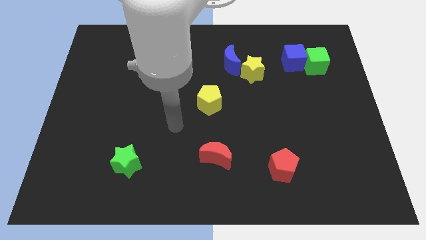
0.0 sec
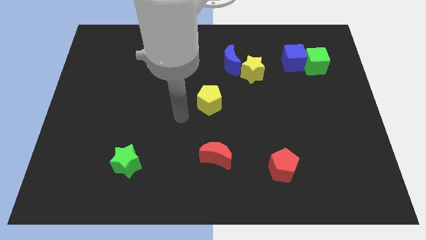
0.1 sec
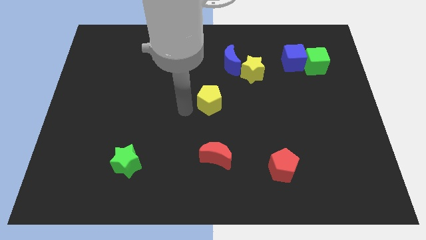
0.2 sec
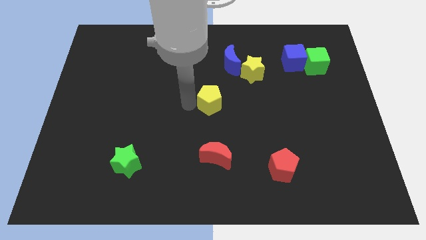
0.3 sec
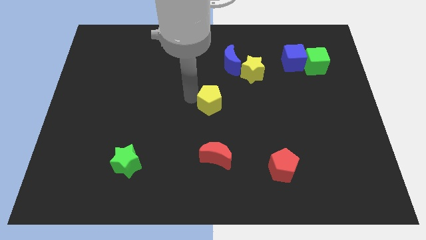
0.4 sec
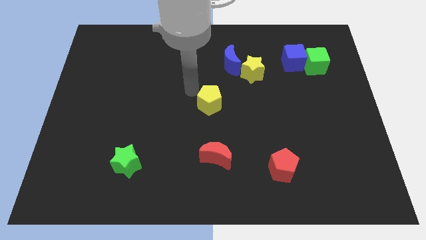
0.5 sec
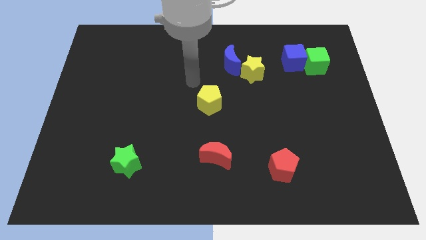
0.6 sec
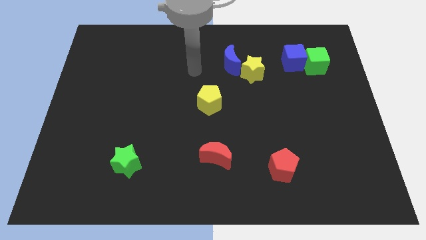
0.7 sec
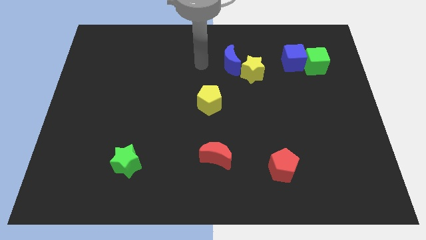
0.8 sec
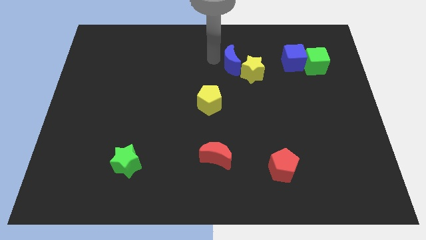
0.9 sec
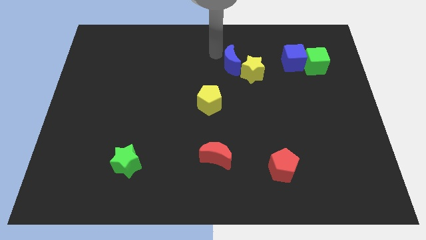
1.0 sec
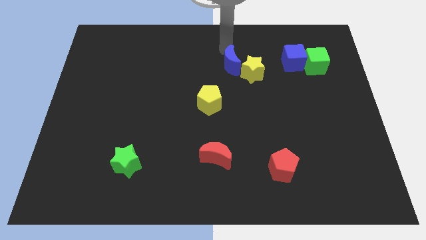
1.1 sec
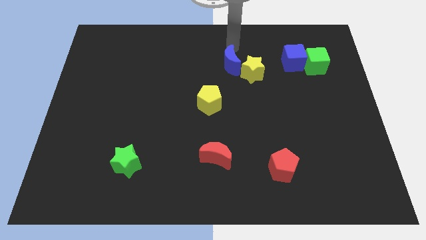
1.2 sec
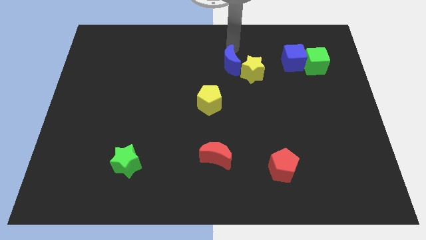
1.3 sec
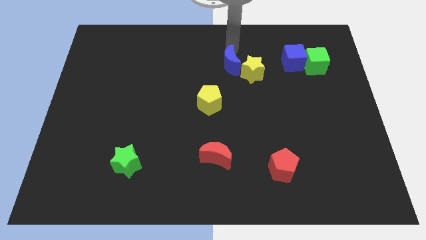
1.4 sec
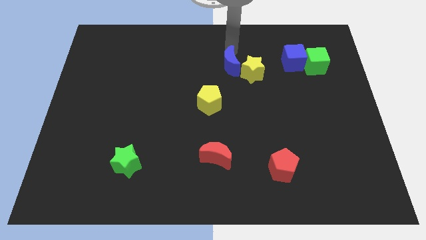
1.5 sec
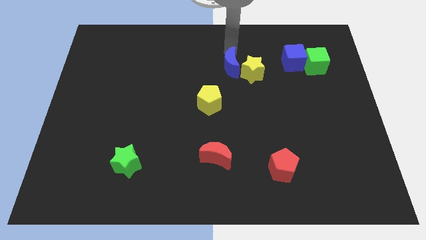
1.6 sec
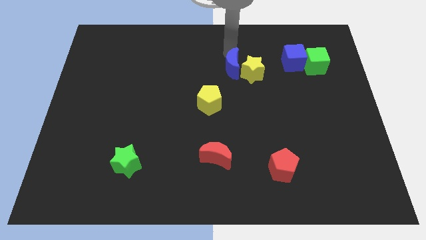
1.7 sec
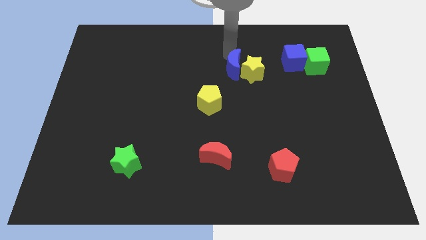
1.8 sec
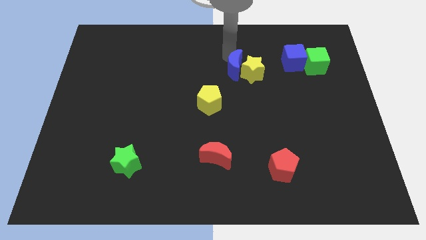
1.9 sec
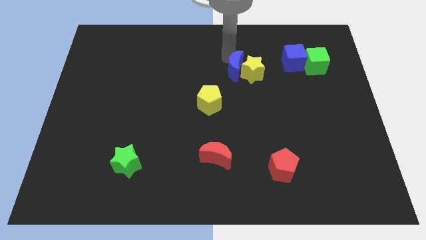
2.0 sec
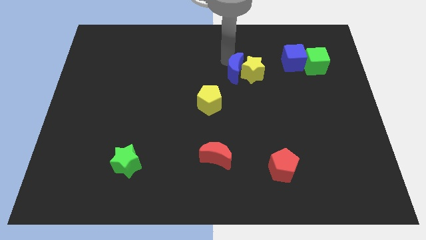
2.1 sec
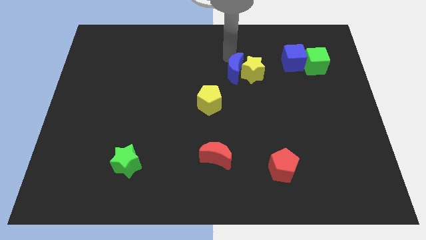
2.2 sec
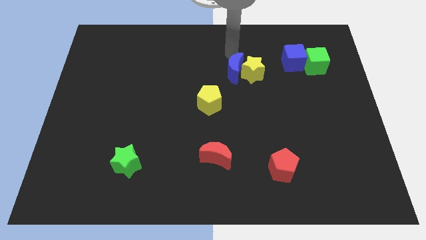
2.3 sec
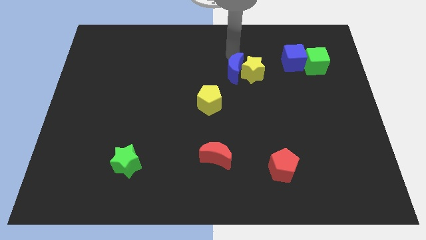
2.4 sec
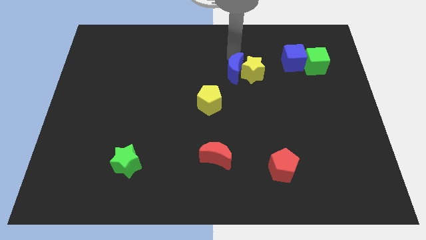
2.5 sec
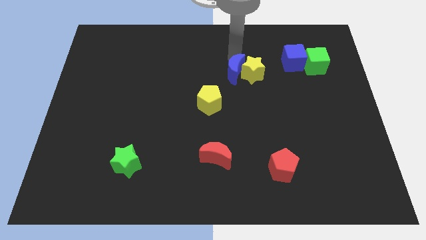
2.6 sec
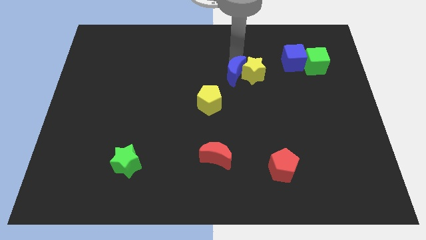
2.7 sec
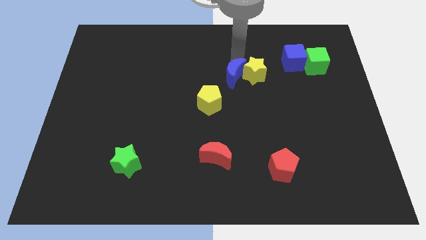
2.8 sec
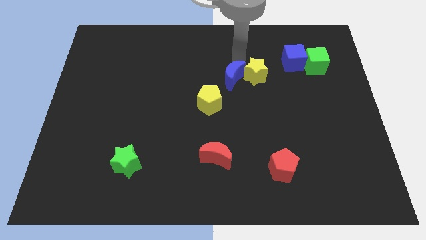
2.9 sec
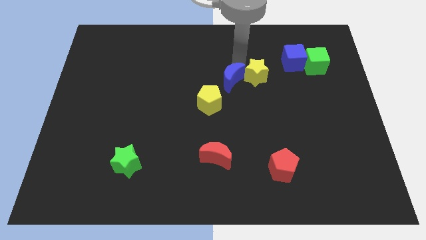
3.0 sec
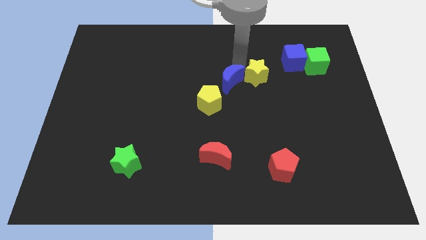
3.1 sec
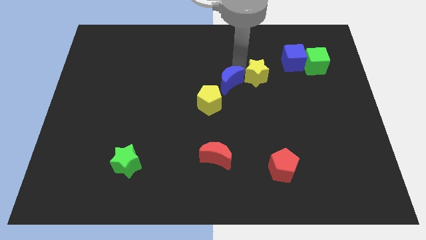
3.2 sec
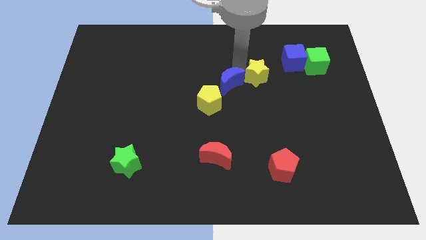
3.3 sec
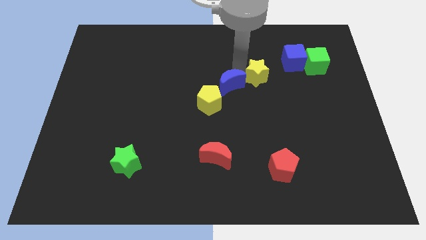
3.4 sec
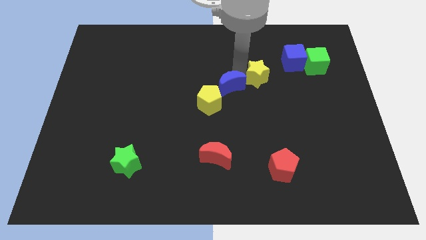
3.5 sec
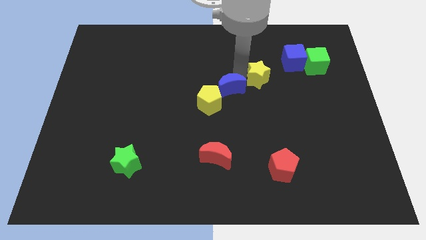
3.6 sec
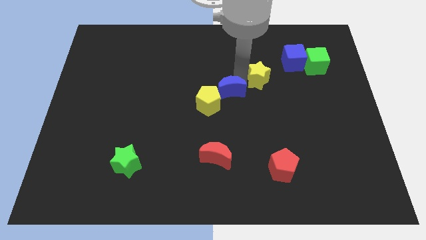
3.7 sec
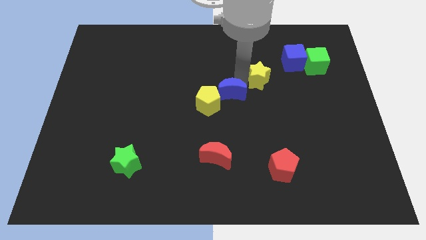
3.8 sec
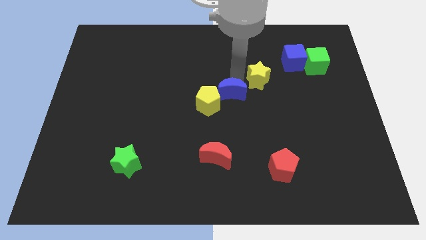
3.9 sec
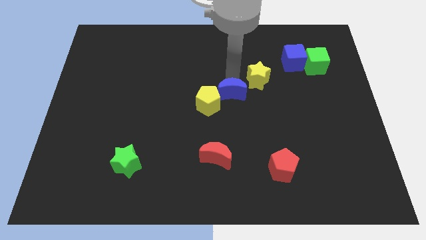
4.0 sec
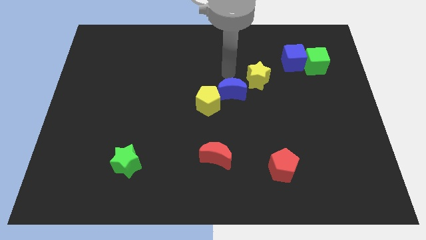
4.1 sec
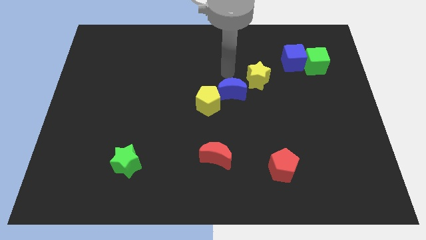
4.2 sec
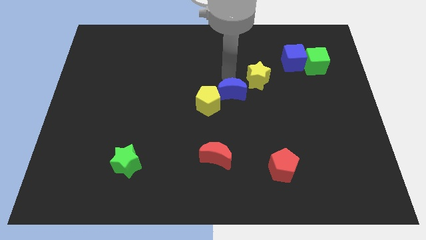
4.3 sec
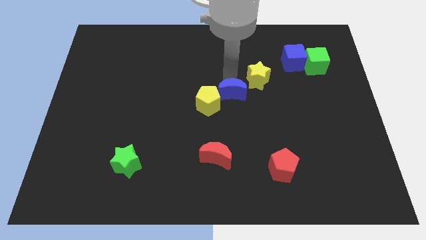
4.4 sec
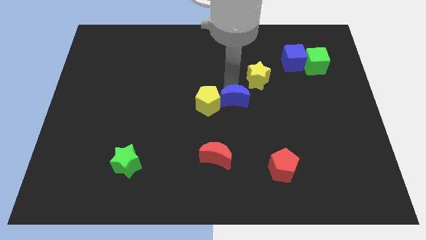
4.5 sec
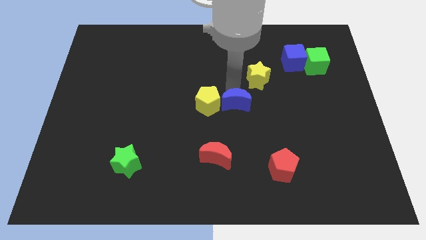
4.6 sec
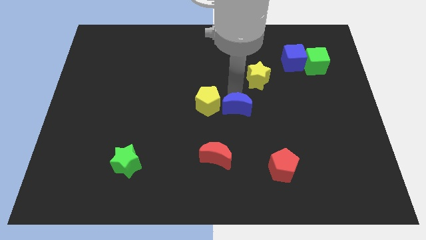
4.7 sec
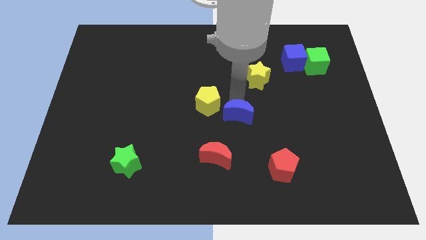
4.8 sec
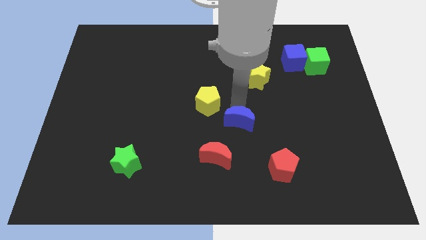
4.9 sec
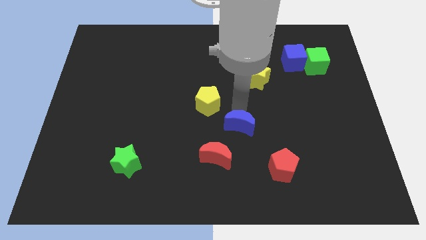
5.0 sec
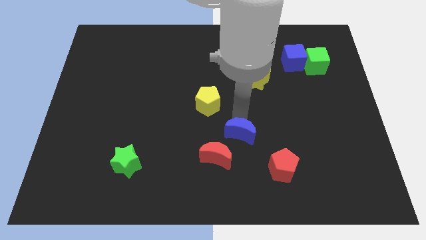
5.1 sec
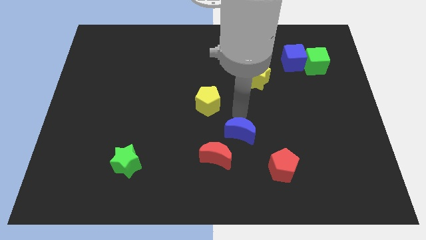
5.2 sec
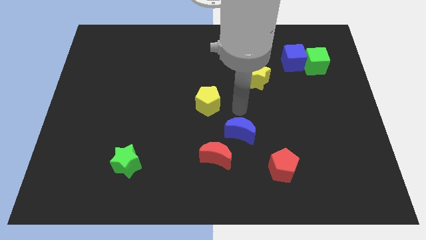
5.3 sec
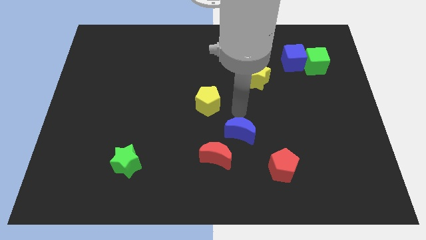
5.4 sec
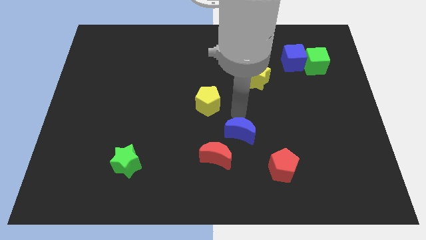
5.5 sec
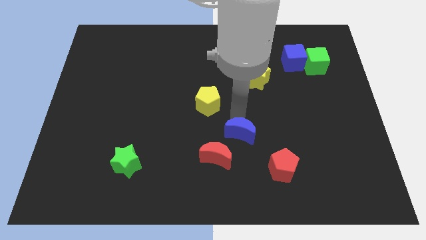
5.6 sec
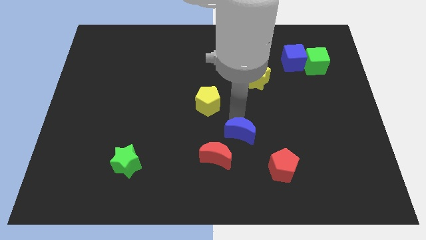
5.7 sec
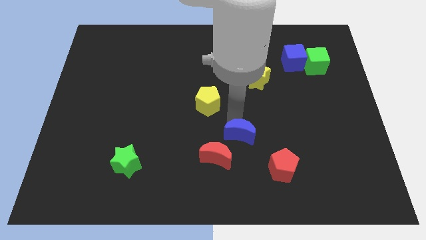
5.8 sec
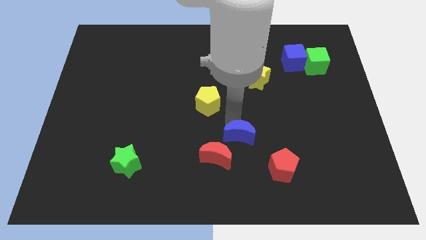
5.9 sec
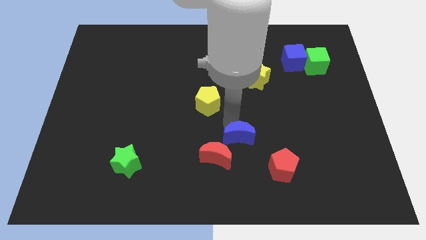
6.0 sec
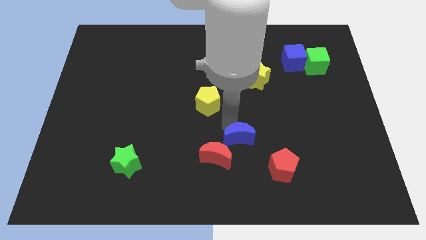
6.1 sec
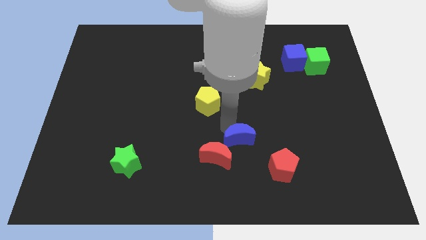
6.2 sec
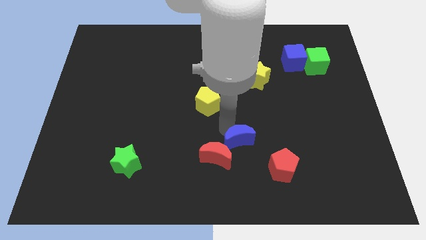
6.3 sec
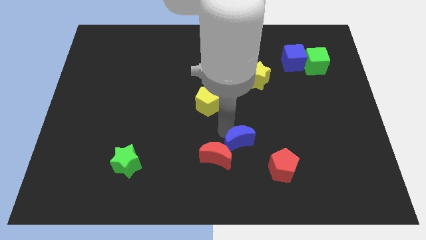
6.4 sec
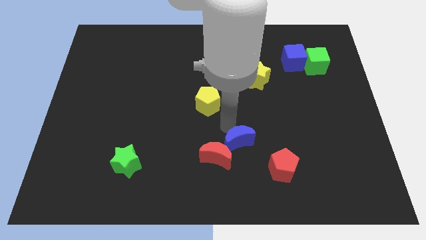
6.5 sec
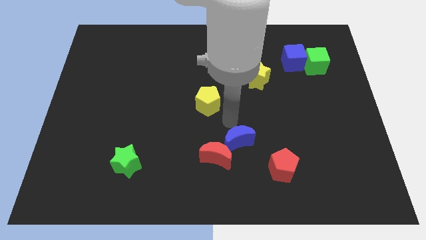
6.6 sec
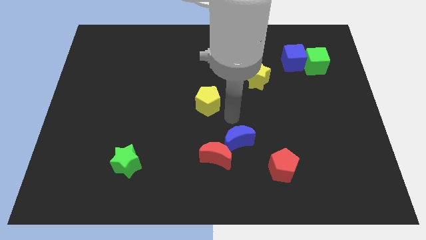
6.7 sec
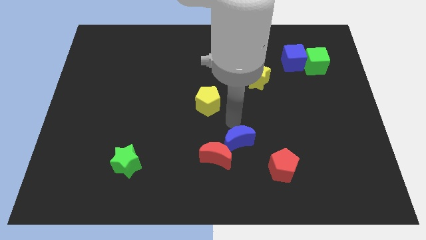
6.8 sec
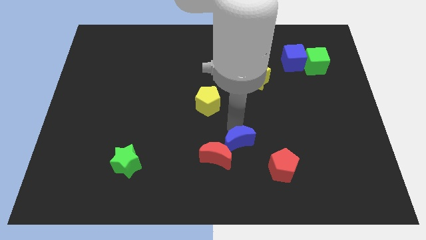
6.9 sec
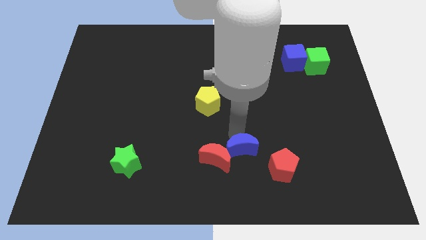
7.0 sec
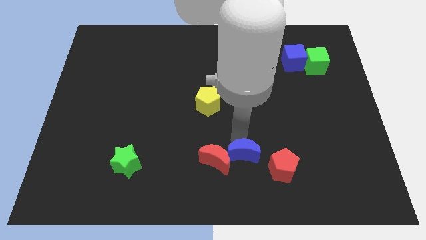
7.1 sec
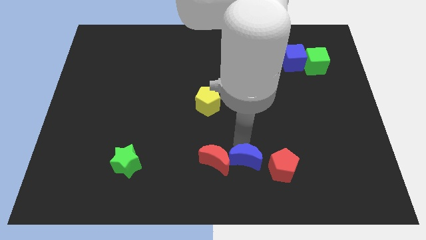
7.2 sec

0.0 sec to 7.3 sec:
push the blue moon to the bottom

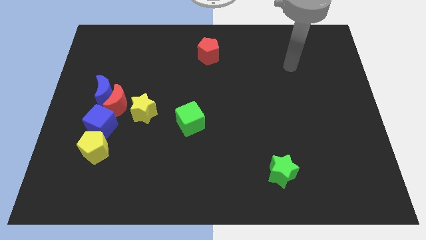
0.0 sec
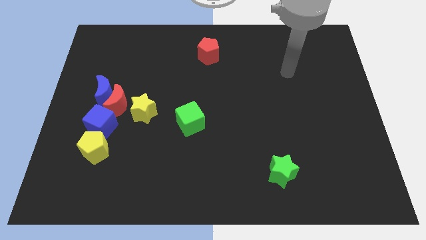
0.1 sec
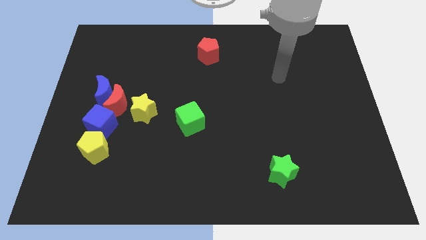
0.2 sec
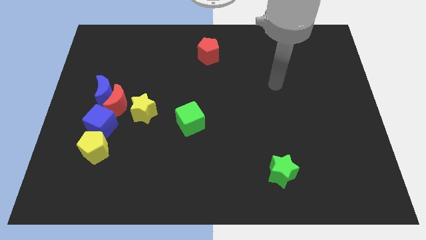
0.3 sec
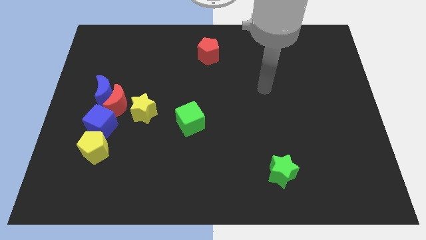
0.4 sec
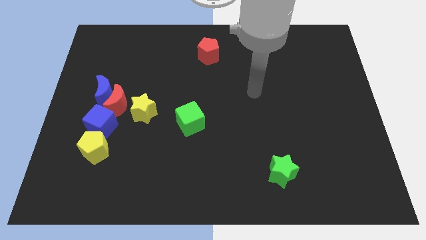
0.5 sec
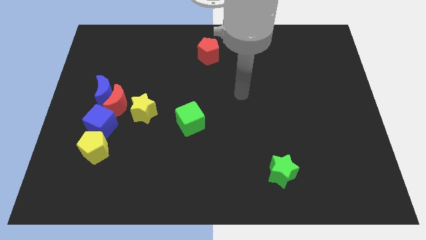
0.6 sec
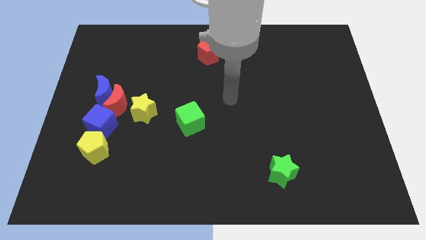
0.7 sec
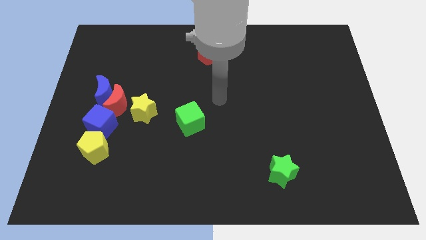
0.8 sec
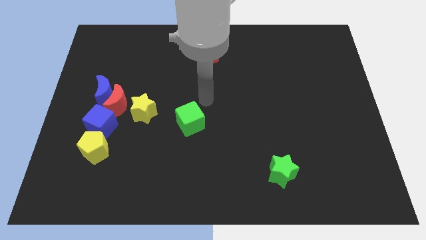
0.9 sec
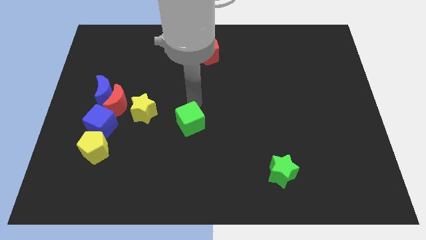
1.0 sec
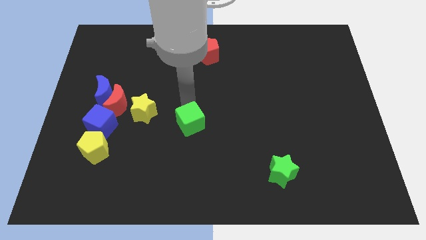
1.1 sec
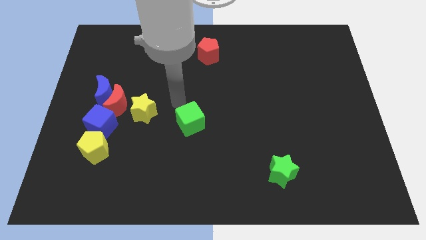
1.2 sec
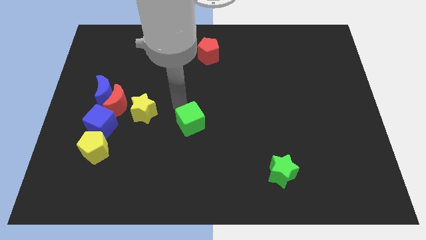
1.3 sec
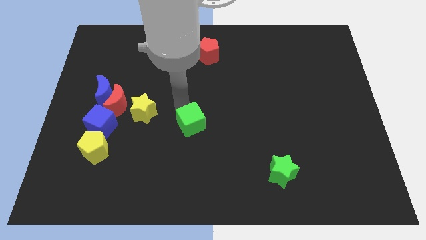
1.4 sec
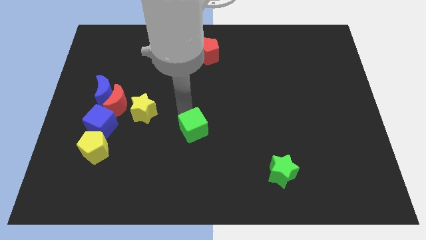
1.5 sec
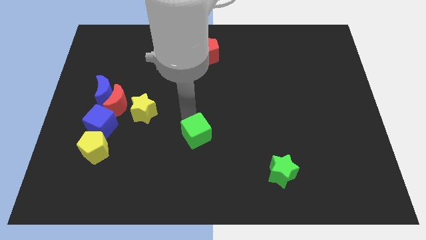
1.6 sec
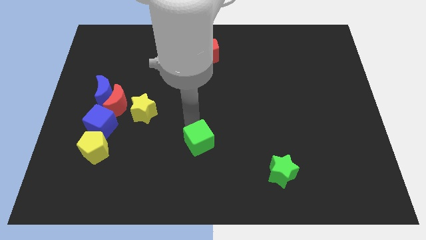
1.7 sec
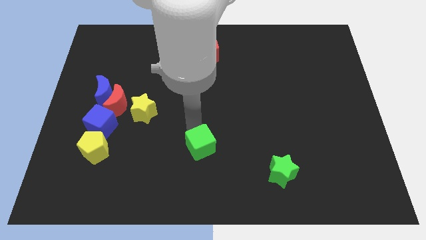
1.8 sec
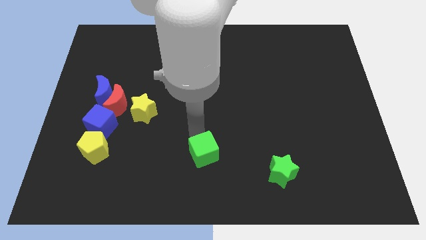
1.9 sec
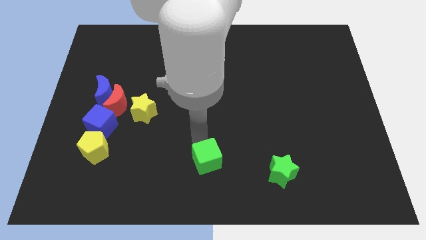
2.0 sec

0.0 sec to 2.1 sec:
put the green cube to the bottom side
